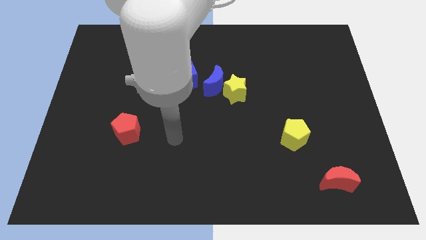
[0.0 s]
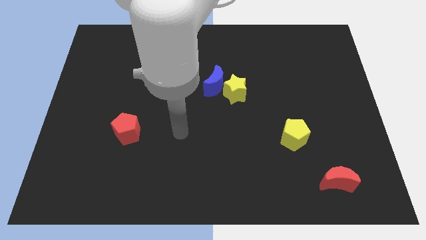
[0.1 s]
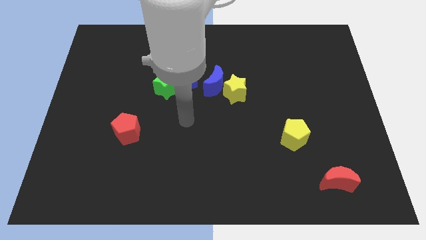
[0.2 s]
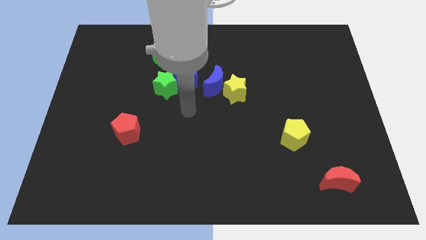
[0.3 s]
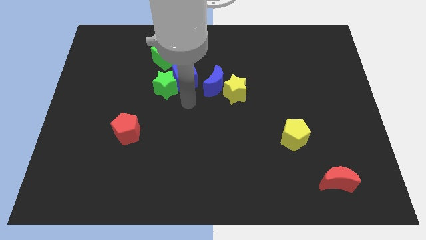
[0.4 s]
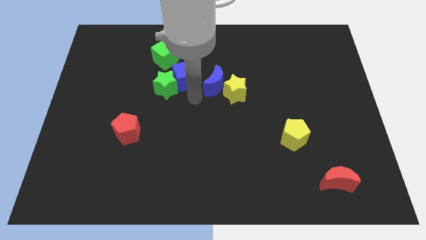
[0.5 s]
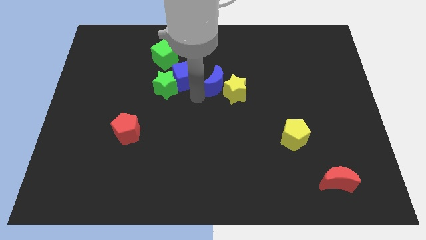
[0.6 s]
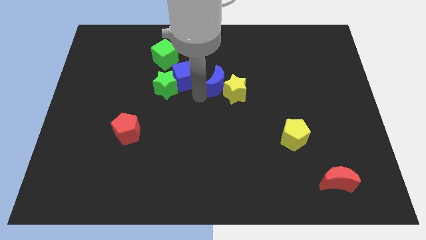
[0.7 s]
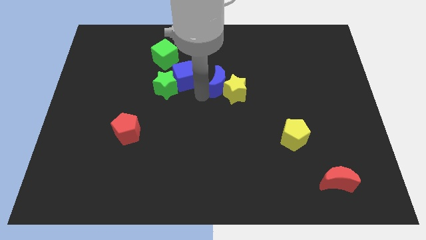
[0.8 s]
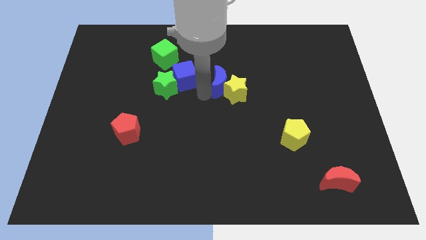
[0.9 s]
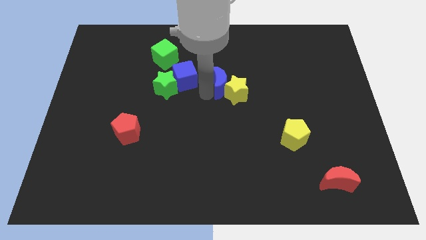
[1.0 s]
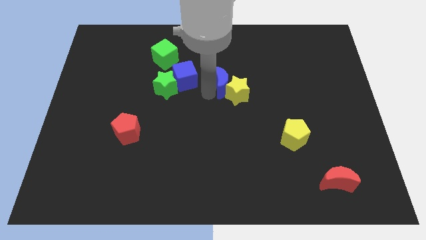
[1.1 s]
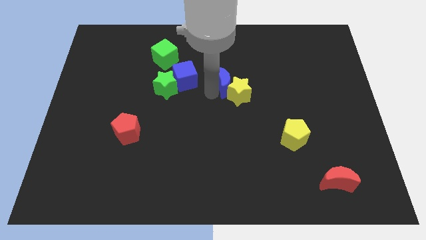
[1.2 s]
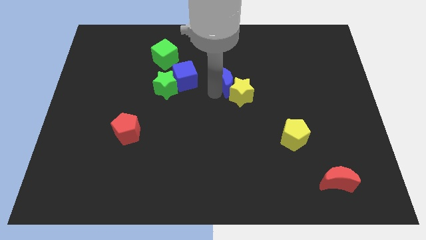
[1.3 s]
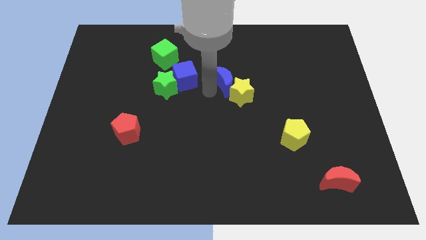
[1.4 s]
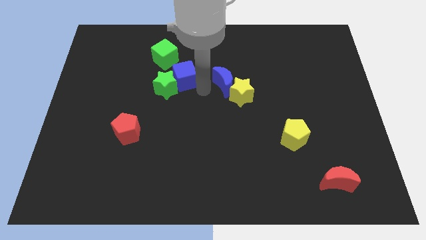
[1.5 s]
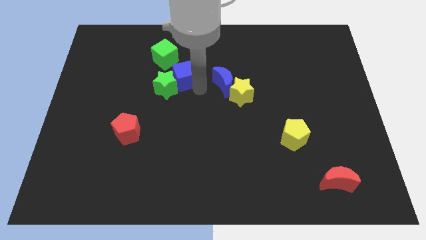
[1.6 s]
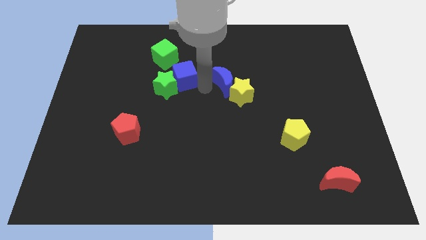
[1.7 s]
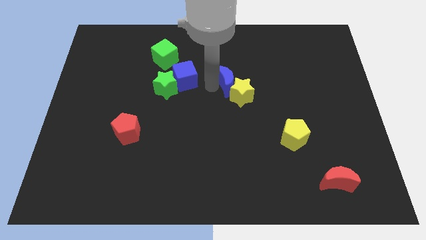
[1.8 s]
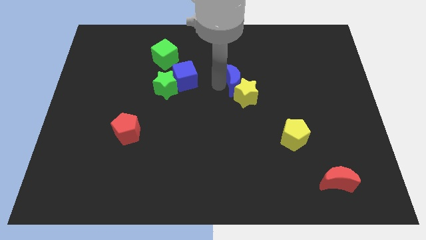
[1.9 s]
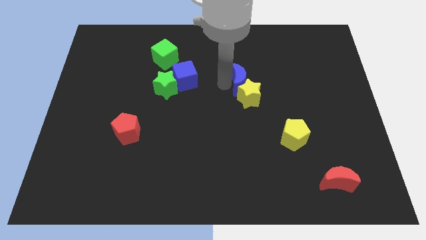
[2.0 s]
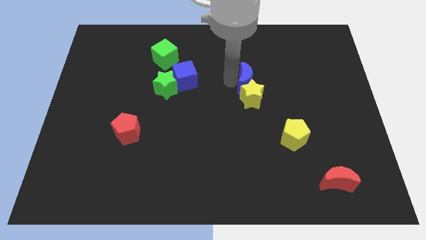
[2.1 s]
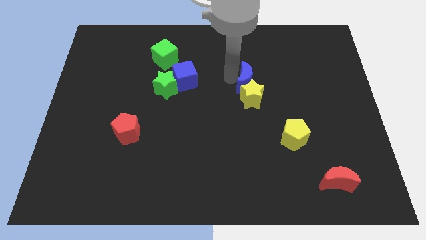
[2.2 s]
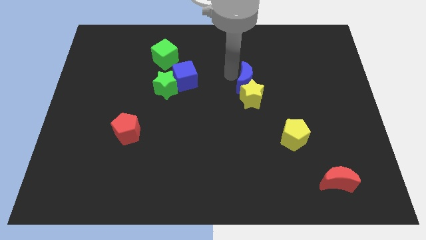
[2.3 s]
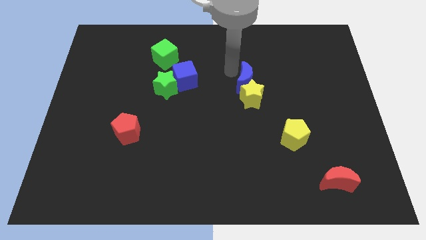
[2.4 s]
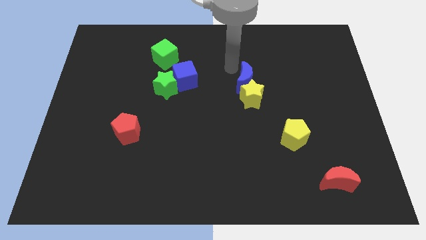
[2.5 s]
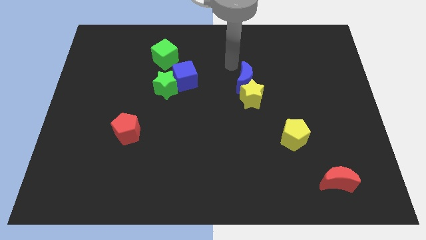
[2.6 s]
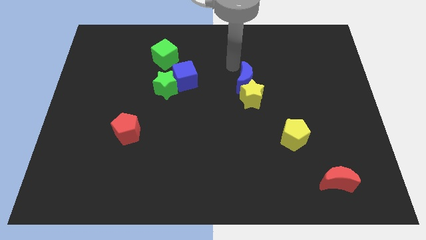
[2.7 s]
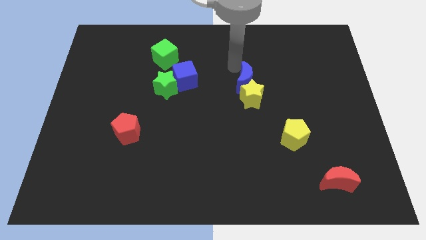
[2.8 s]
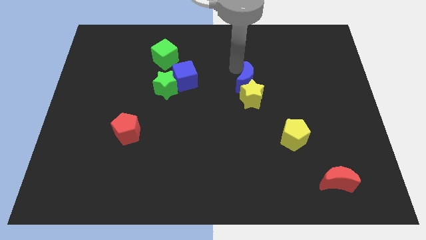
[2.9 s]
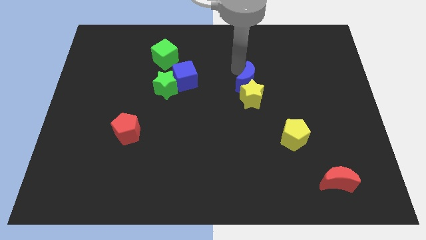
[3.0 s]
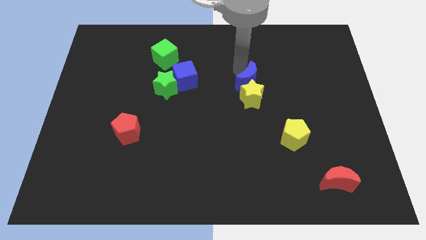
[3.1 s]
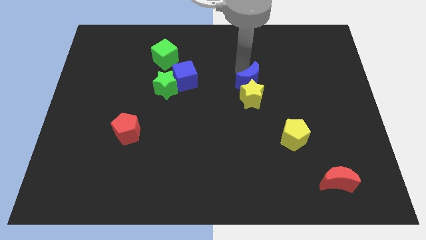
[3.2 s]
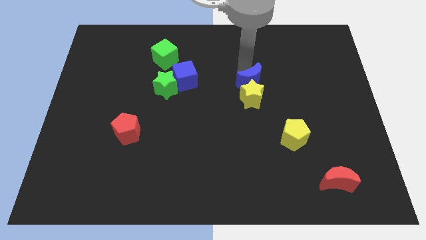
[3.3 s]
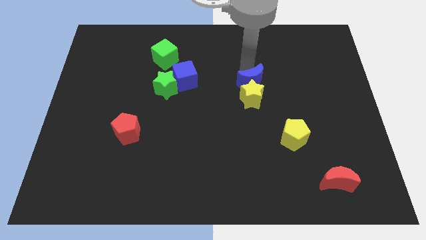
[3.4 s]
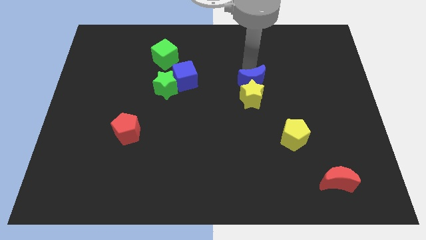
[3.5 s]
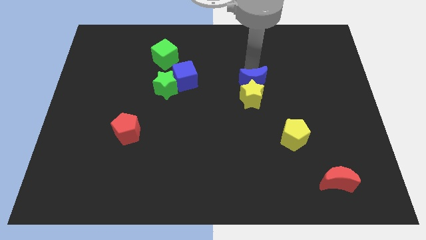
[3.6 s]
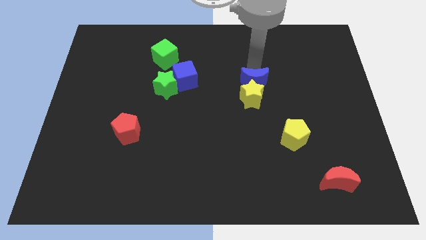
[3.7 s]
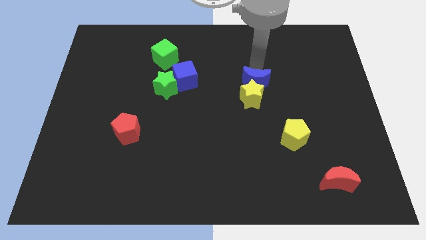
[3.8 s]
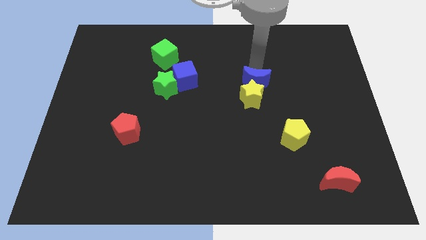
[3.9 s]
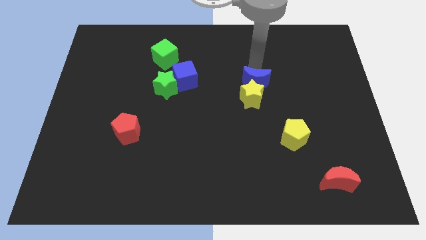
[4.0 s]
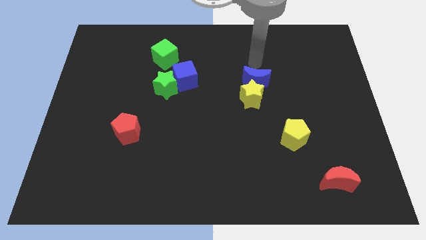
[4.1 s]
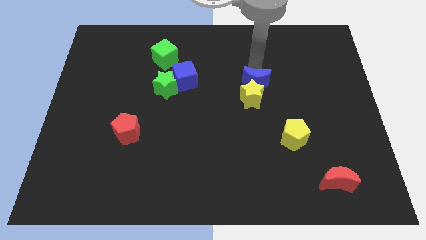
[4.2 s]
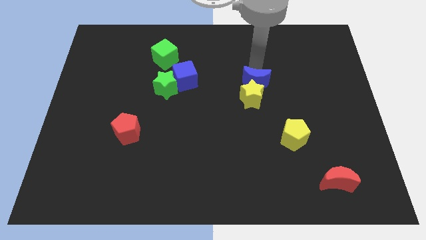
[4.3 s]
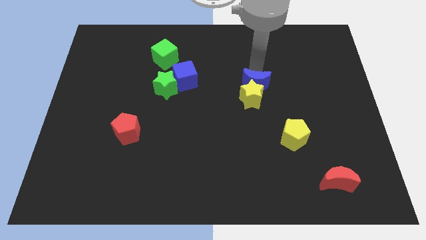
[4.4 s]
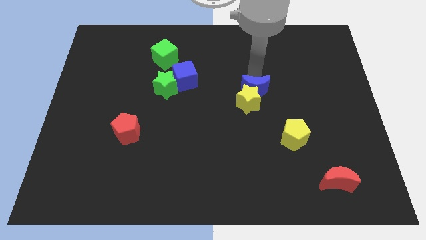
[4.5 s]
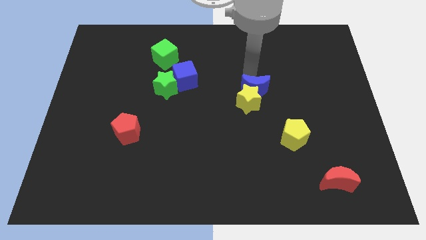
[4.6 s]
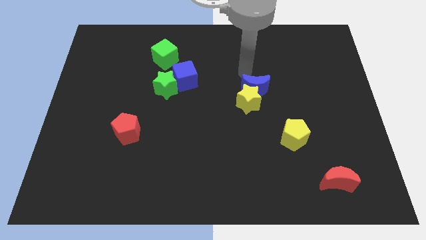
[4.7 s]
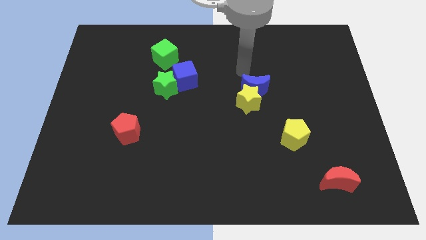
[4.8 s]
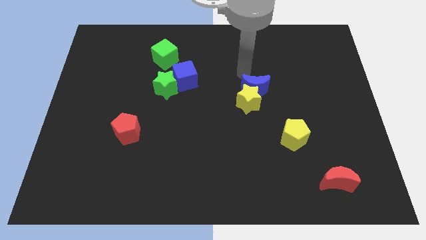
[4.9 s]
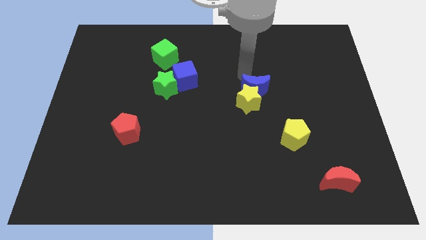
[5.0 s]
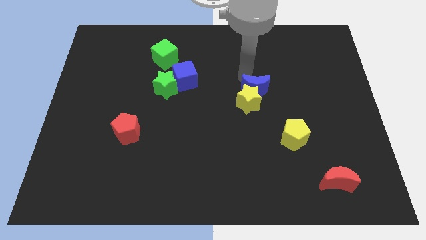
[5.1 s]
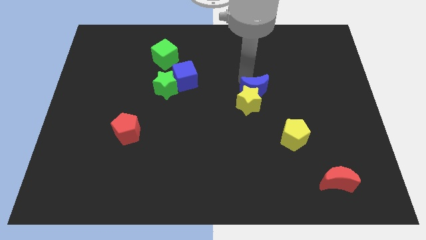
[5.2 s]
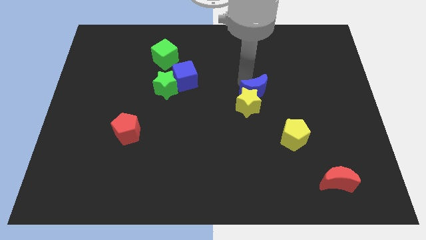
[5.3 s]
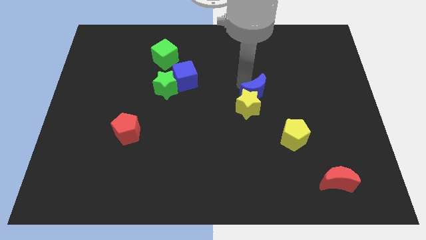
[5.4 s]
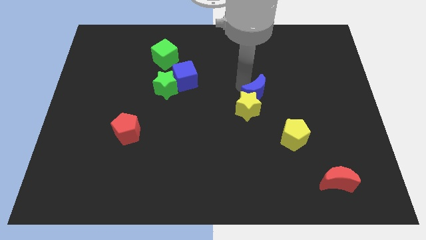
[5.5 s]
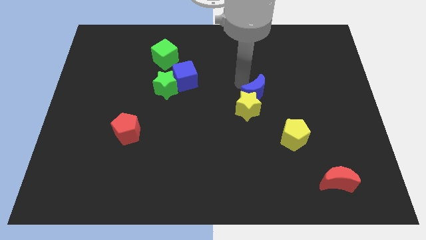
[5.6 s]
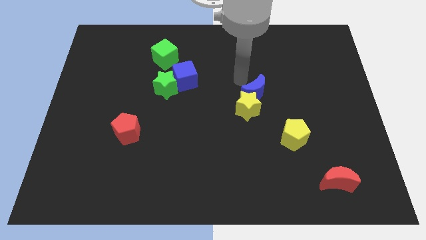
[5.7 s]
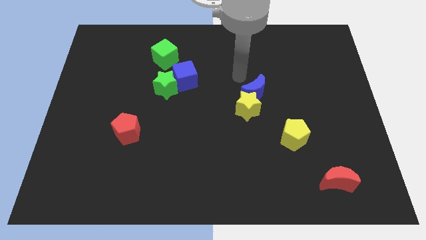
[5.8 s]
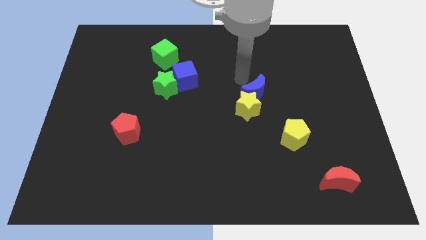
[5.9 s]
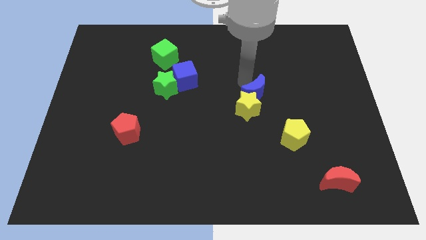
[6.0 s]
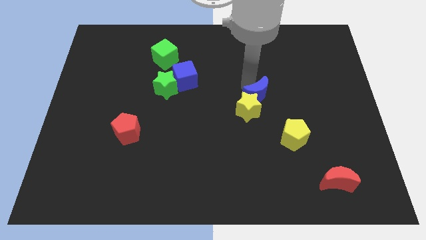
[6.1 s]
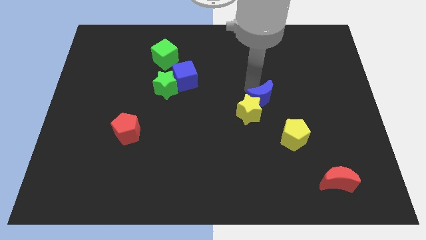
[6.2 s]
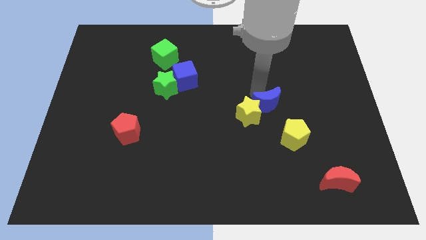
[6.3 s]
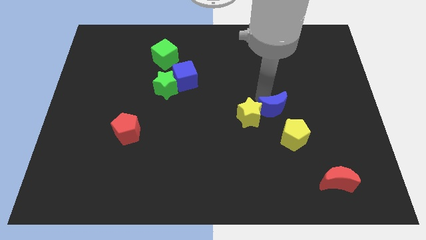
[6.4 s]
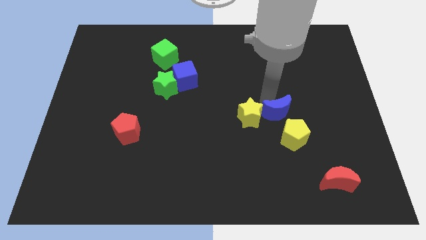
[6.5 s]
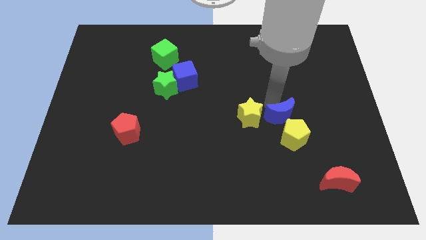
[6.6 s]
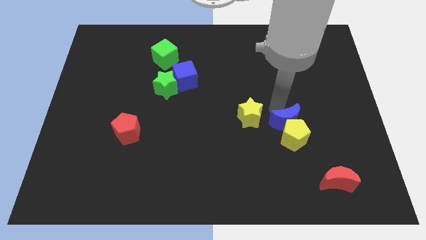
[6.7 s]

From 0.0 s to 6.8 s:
slide the blue moon next to the yellow pentagon
